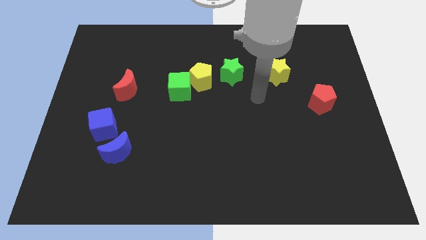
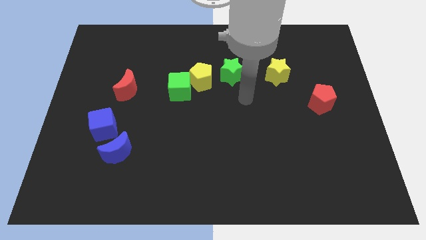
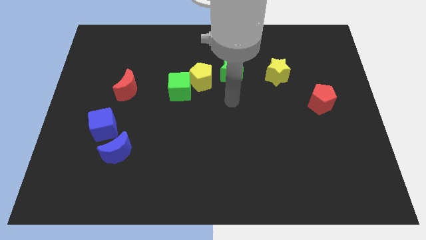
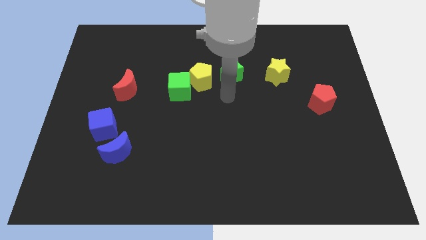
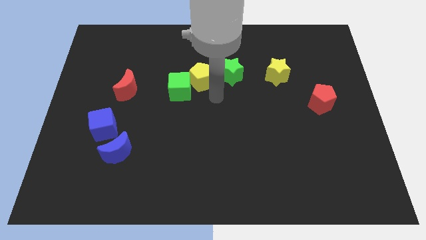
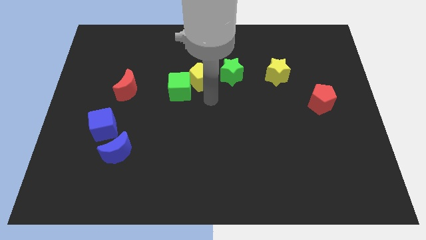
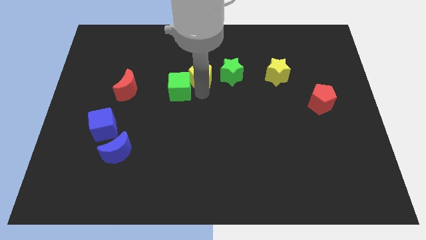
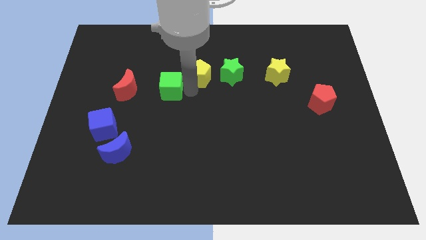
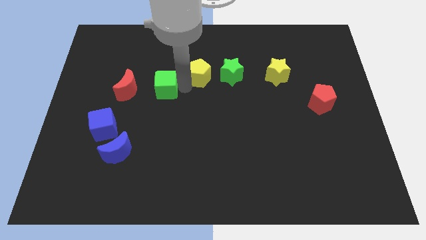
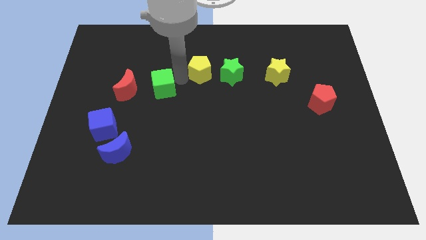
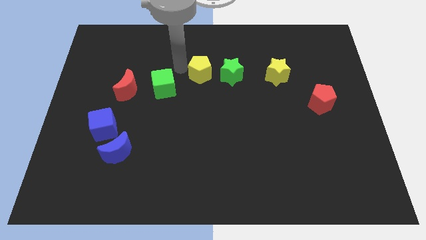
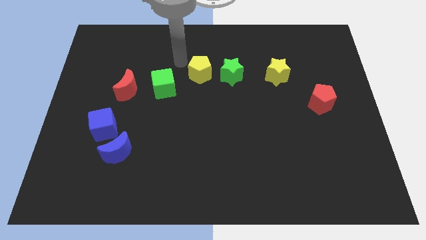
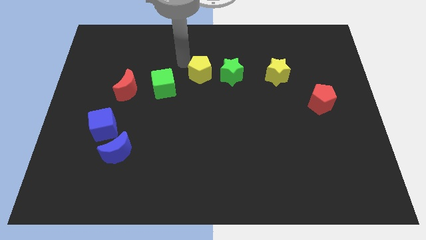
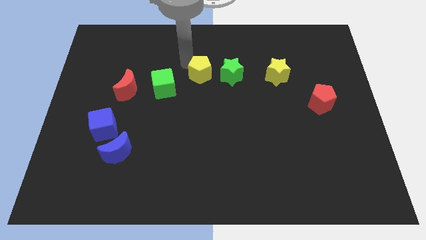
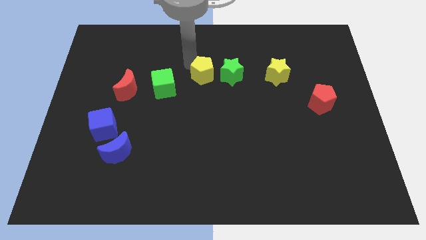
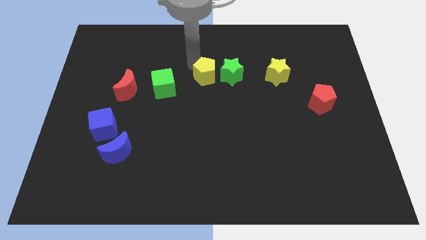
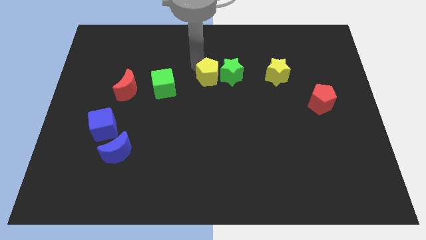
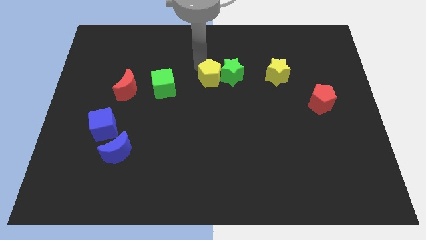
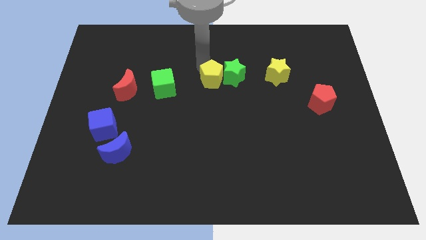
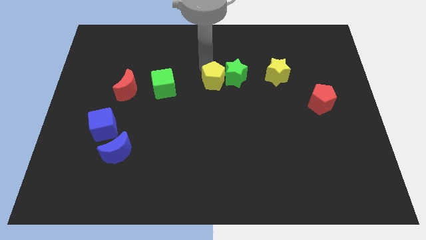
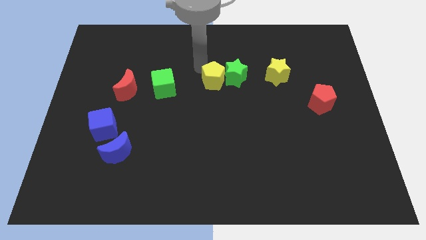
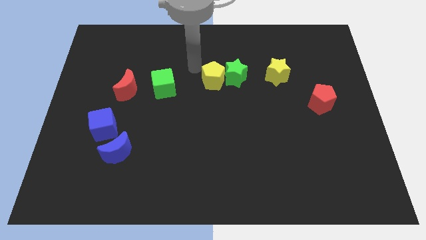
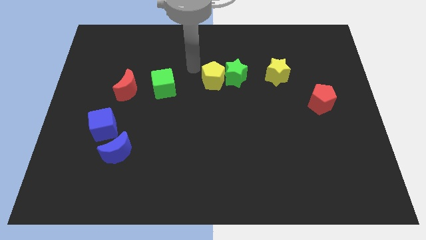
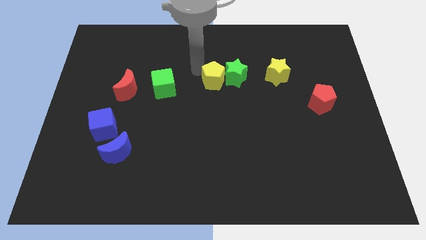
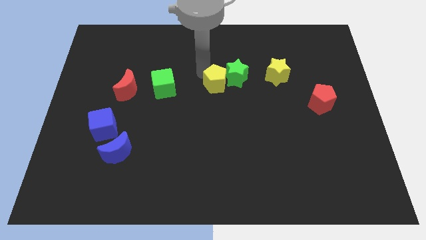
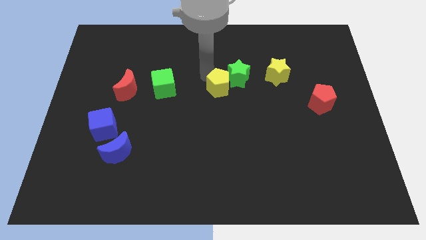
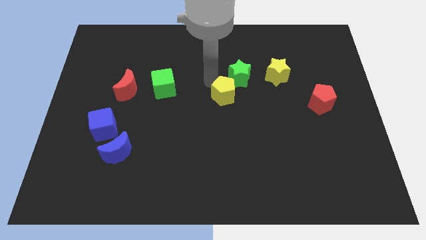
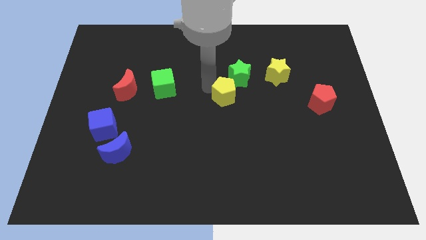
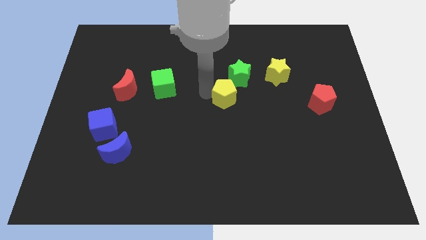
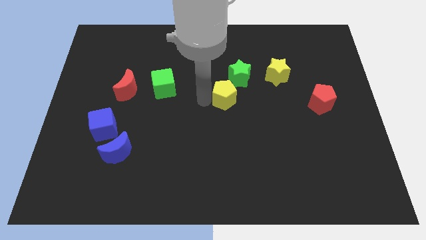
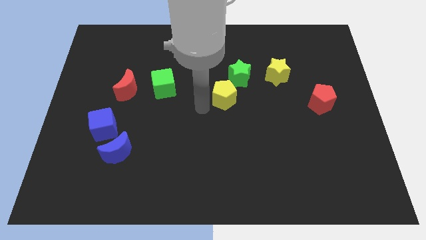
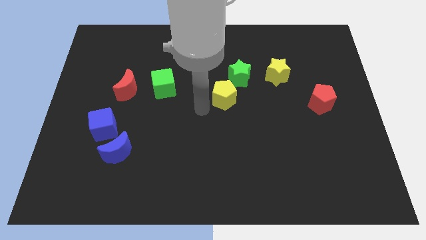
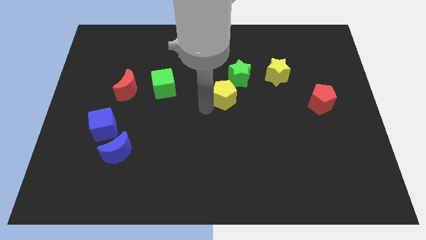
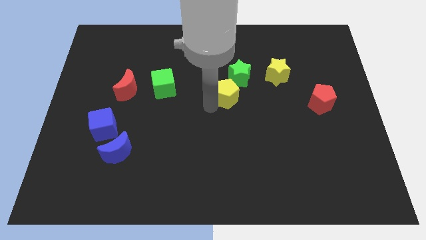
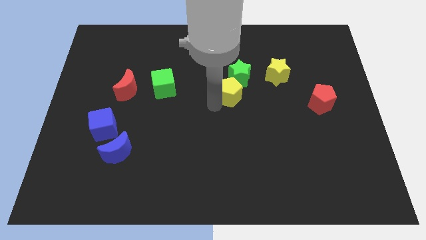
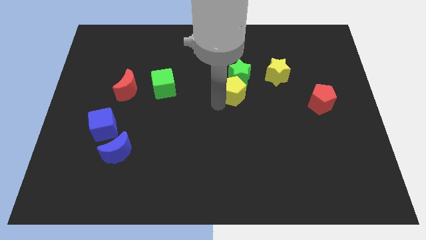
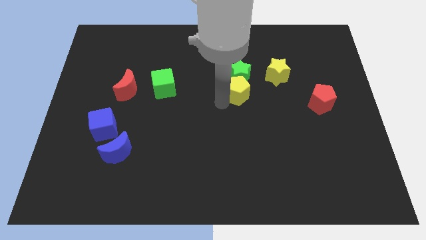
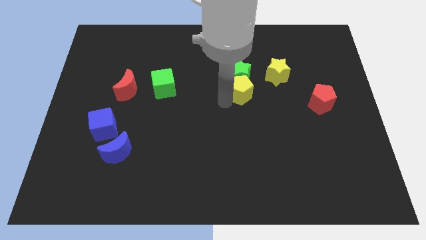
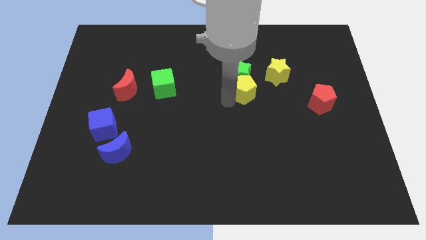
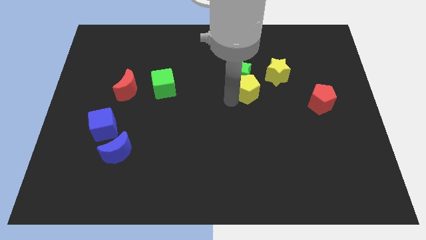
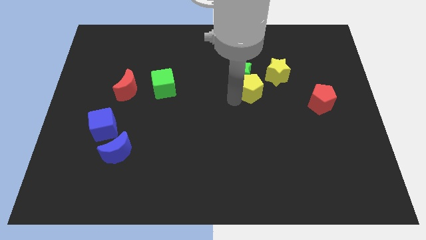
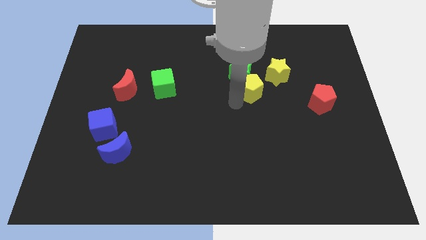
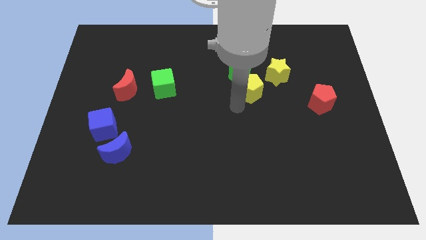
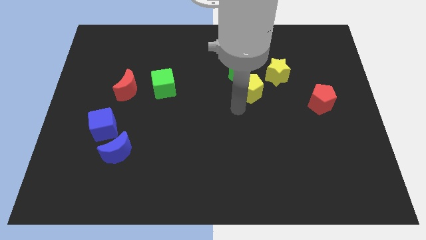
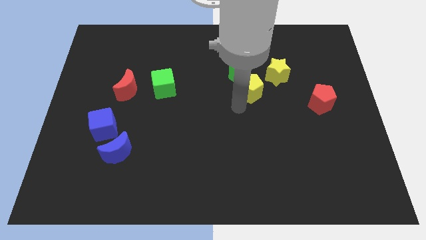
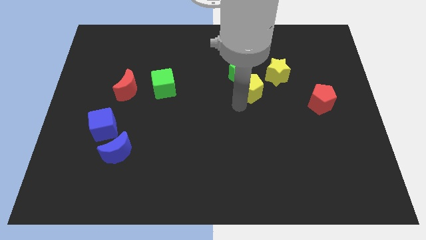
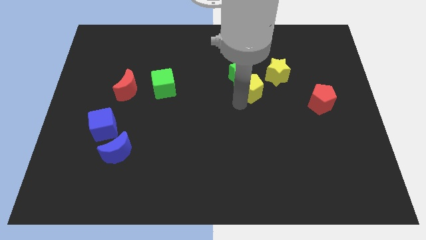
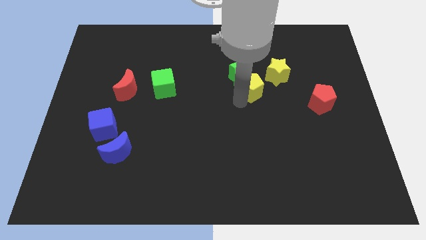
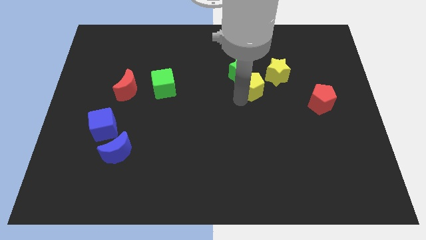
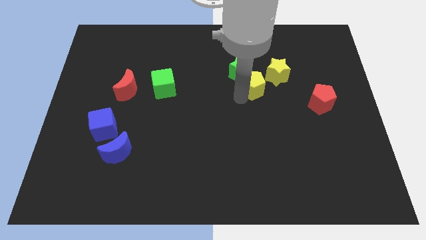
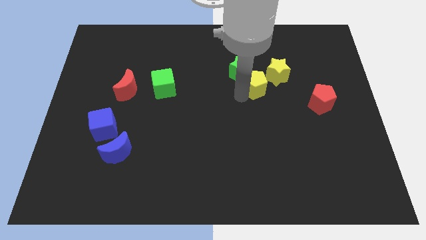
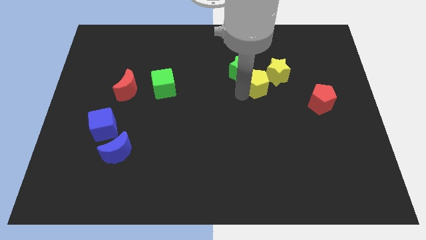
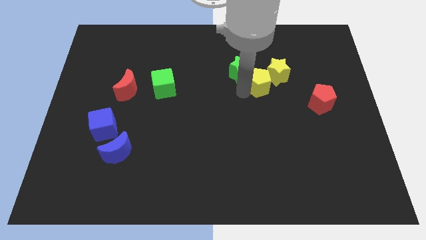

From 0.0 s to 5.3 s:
slide the yellow pentagon next to the yellow star

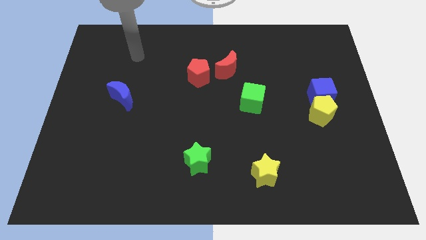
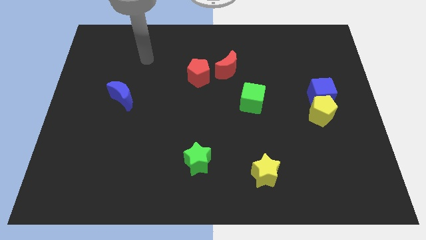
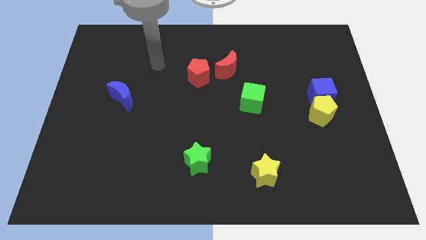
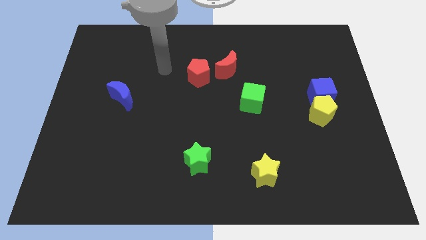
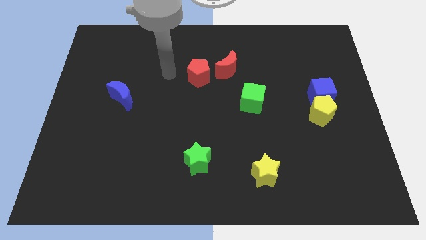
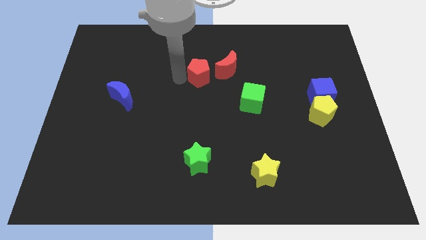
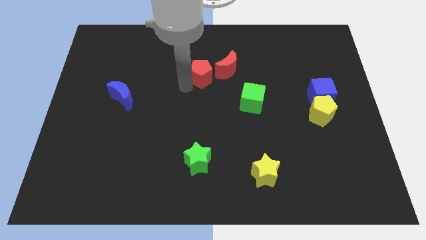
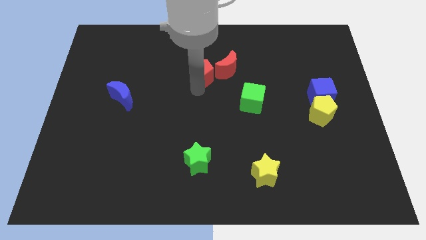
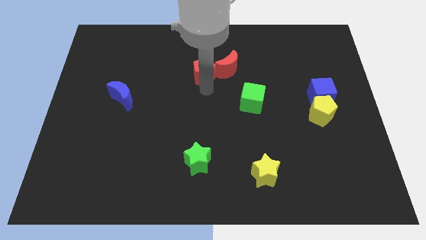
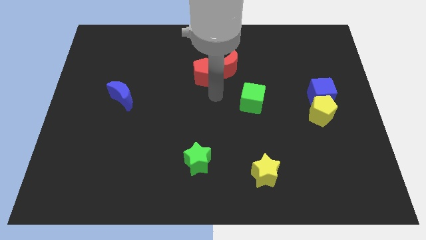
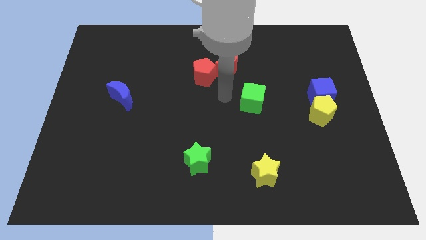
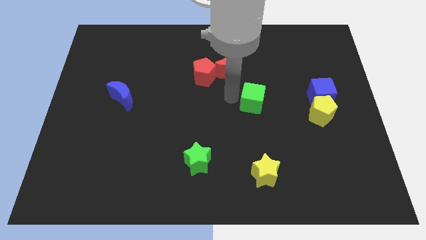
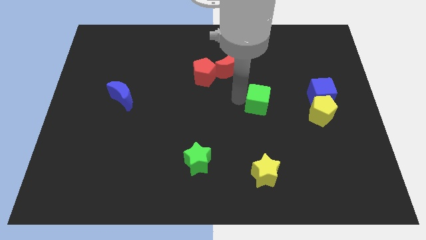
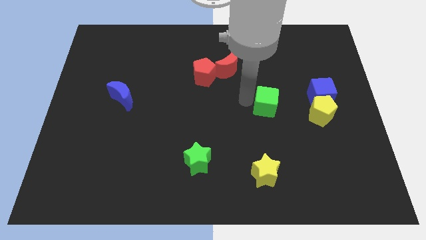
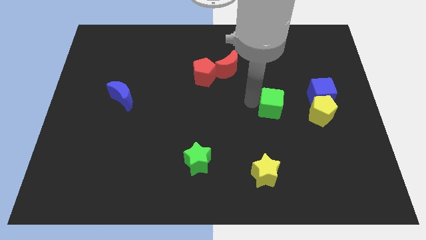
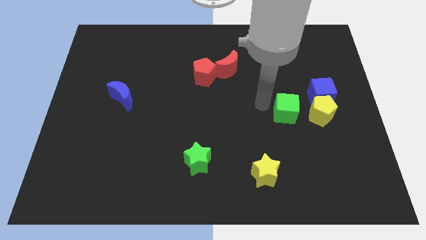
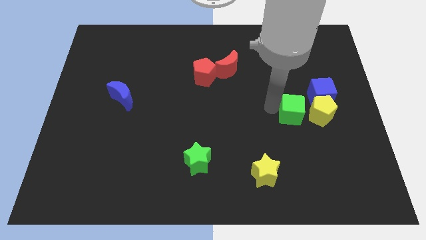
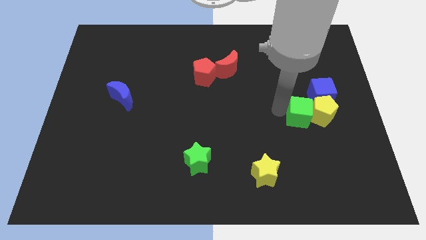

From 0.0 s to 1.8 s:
put the green cube close to the yellow pentagon
